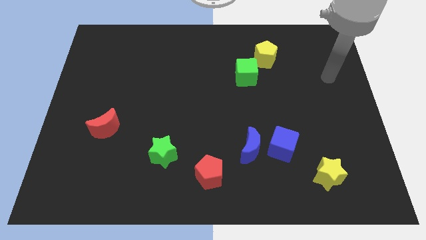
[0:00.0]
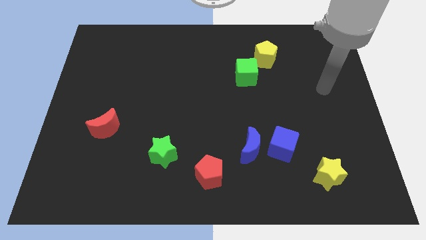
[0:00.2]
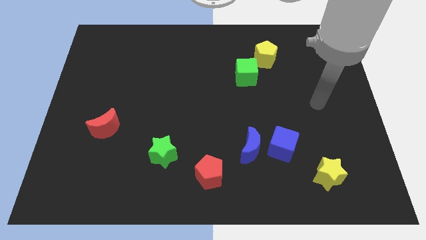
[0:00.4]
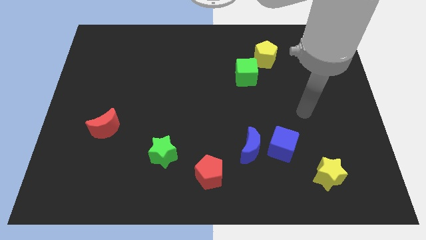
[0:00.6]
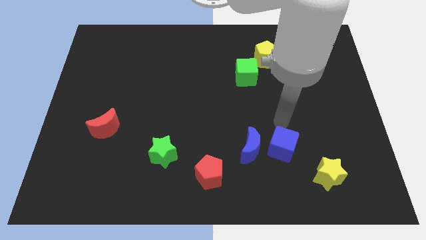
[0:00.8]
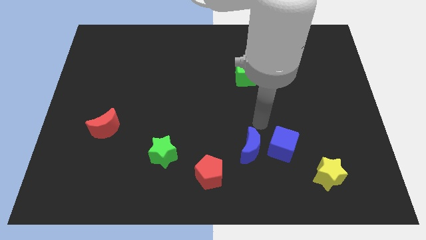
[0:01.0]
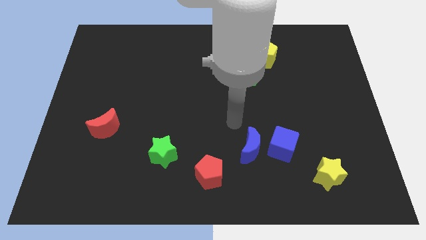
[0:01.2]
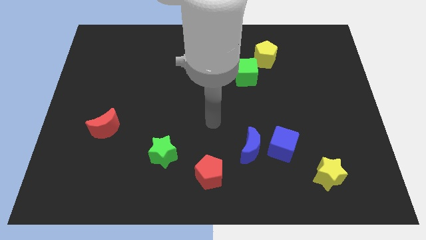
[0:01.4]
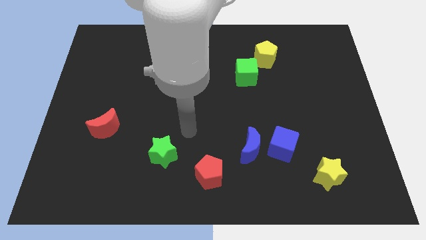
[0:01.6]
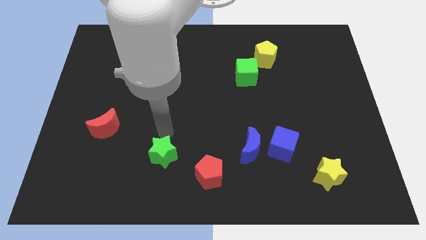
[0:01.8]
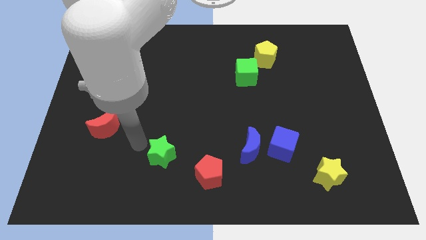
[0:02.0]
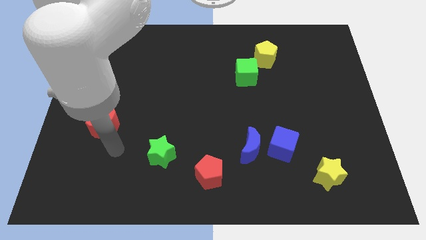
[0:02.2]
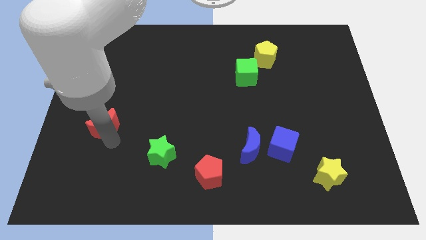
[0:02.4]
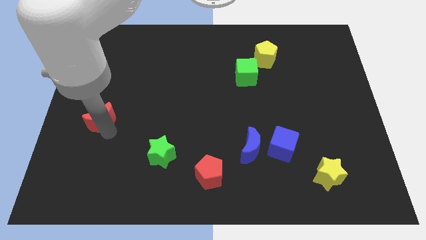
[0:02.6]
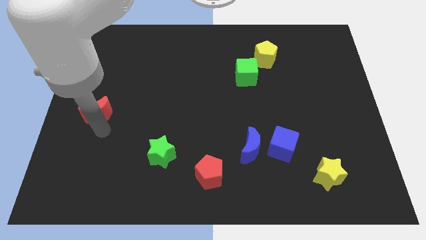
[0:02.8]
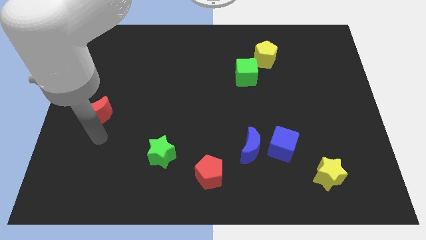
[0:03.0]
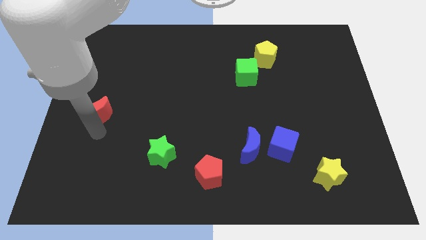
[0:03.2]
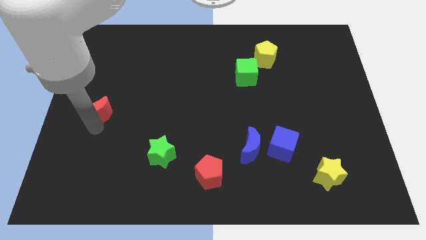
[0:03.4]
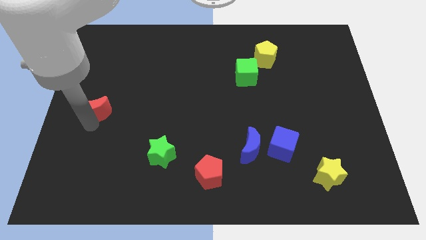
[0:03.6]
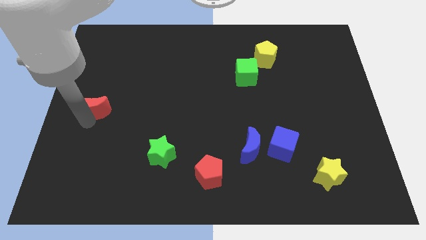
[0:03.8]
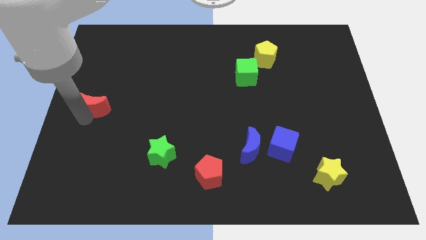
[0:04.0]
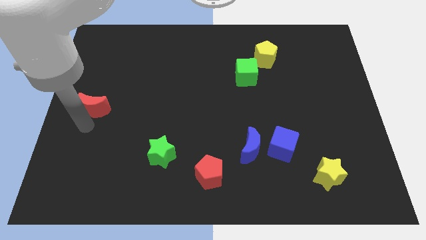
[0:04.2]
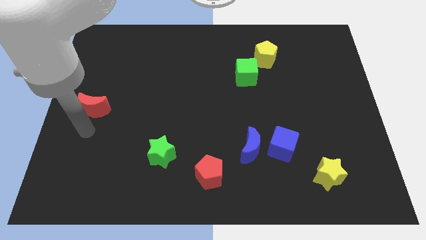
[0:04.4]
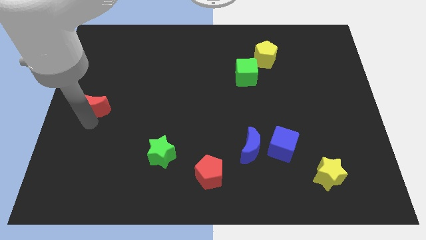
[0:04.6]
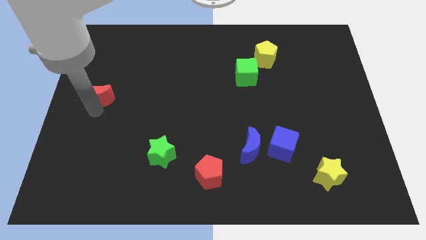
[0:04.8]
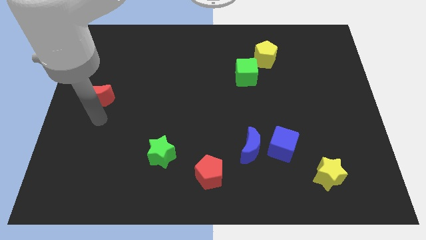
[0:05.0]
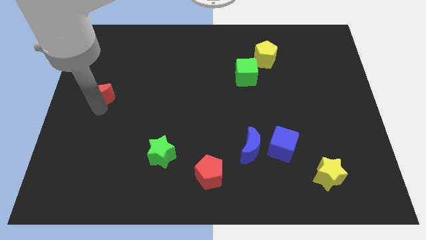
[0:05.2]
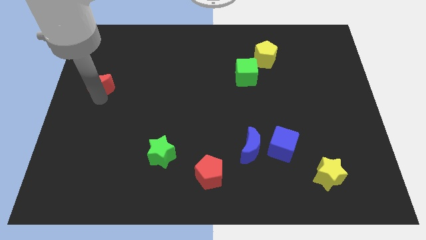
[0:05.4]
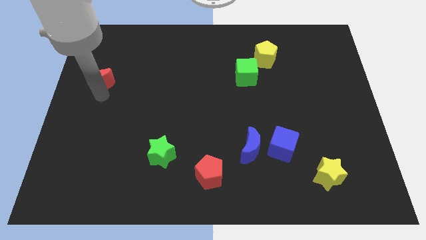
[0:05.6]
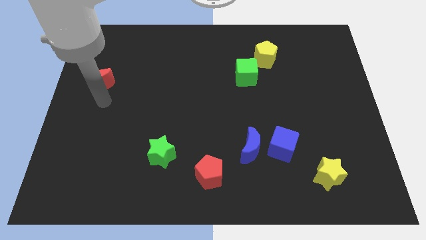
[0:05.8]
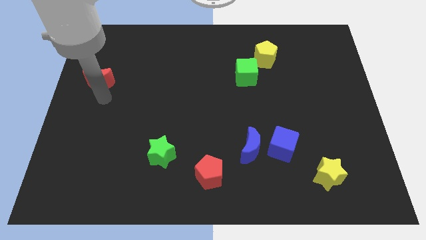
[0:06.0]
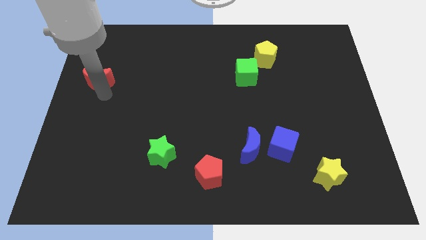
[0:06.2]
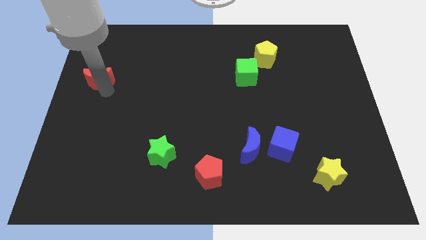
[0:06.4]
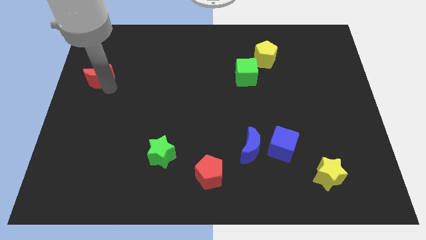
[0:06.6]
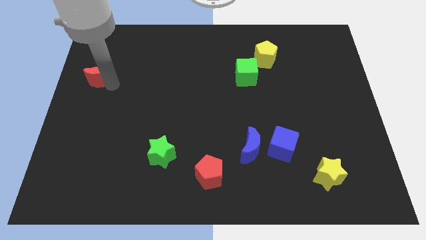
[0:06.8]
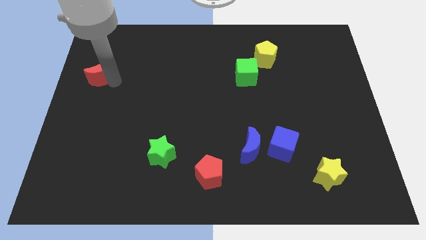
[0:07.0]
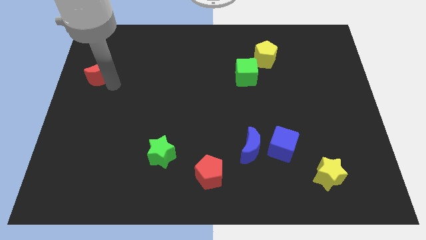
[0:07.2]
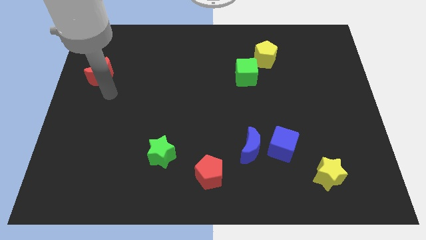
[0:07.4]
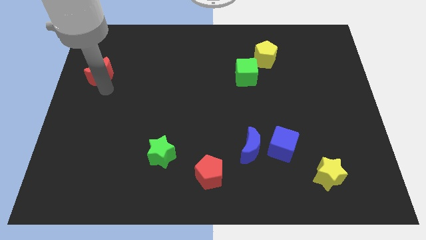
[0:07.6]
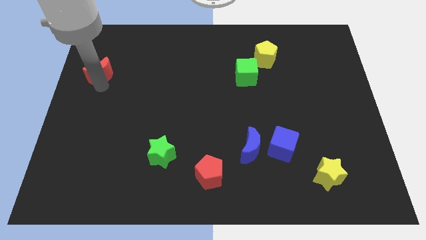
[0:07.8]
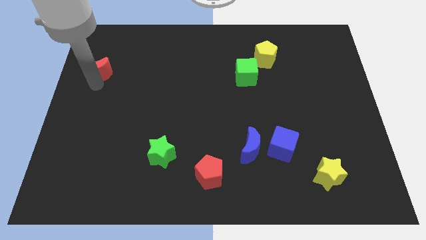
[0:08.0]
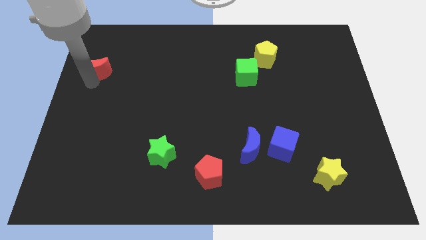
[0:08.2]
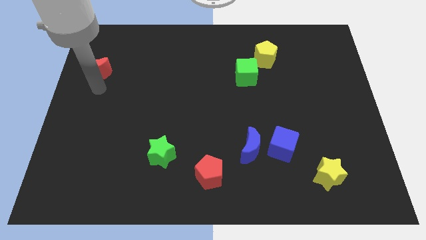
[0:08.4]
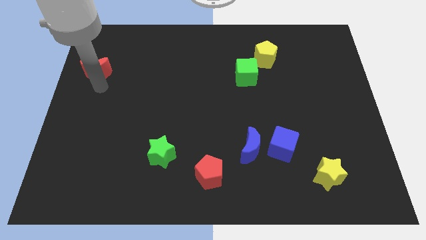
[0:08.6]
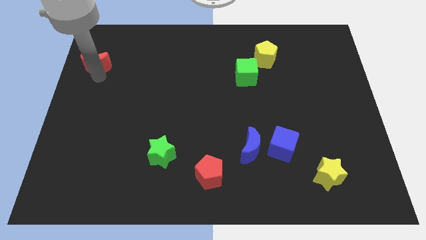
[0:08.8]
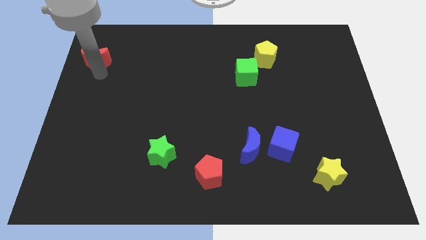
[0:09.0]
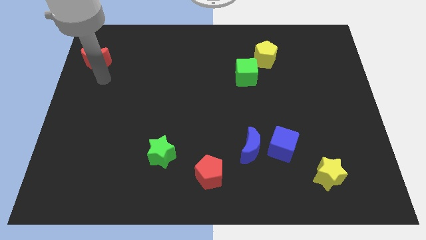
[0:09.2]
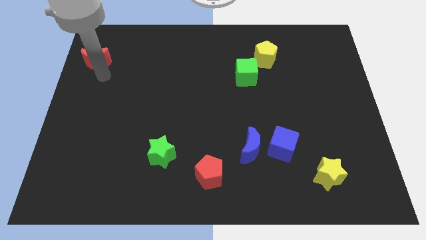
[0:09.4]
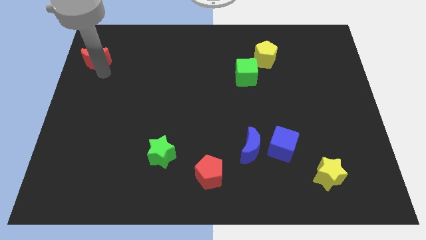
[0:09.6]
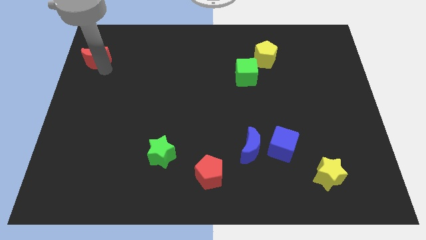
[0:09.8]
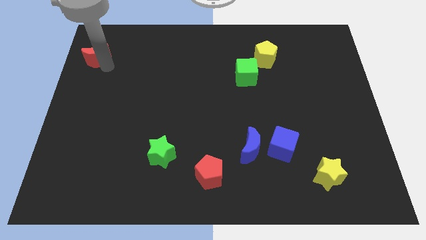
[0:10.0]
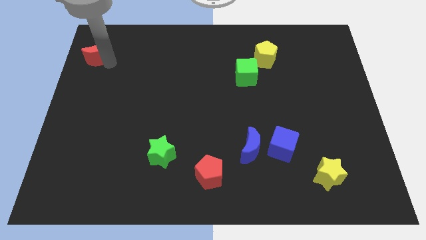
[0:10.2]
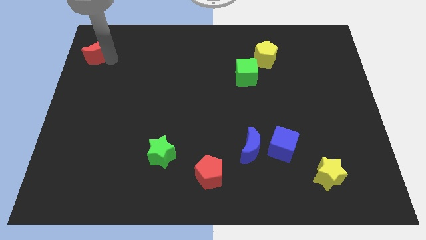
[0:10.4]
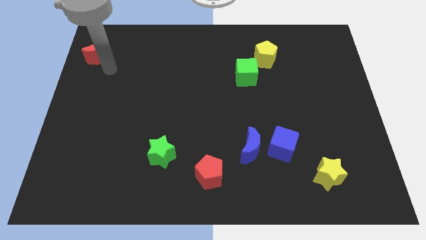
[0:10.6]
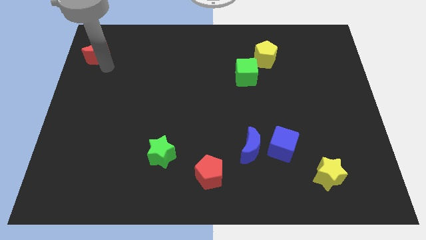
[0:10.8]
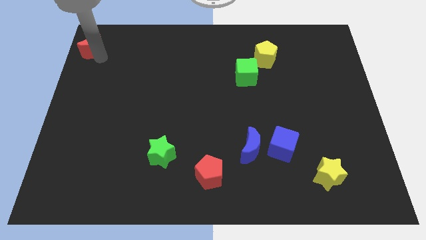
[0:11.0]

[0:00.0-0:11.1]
put the red moon to the top left of the board

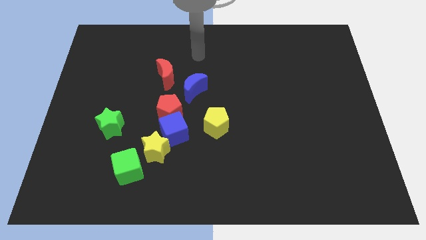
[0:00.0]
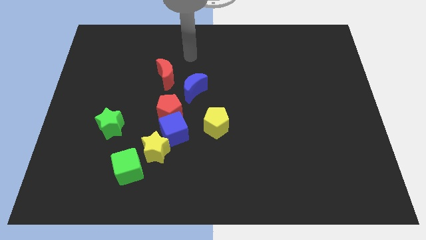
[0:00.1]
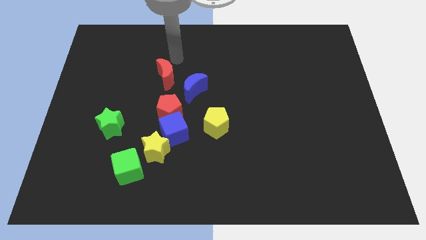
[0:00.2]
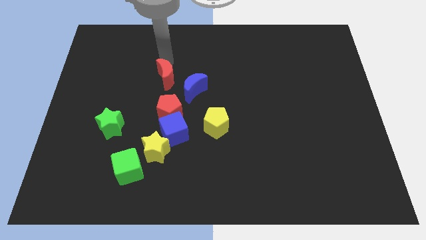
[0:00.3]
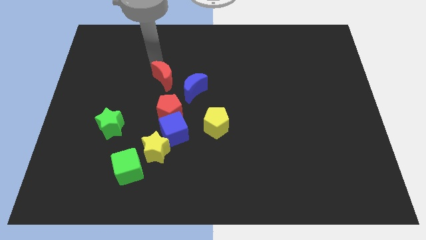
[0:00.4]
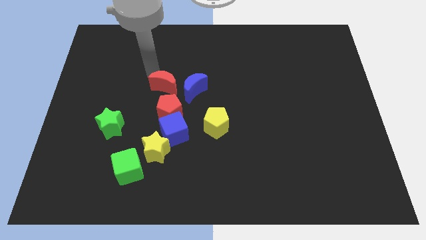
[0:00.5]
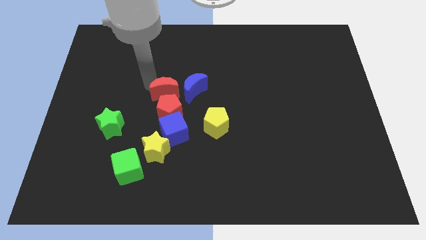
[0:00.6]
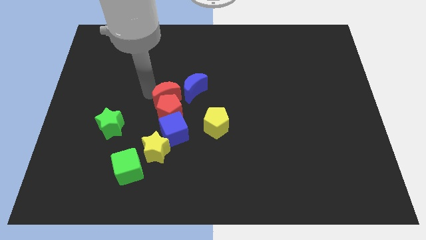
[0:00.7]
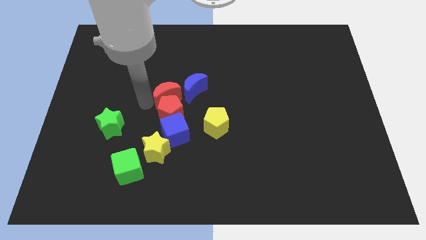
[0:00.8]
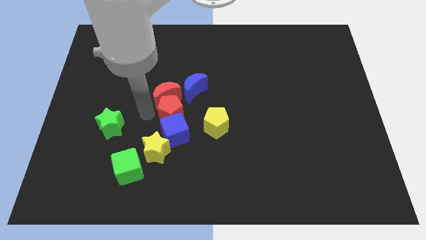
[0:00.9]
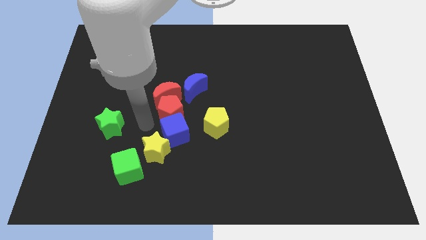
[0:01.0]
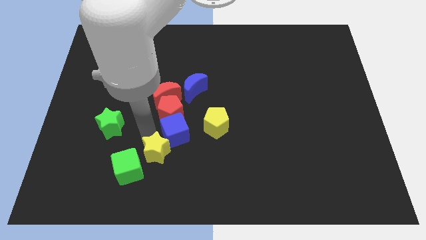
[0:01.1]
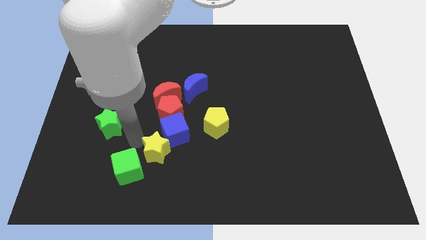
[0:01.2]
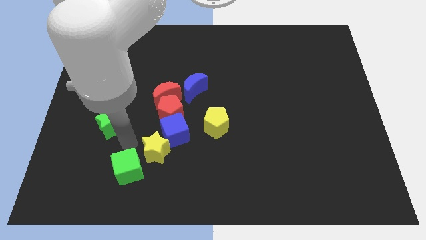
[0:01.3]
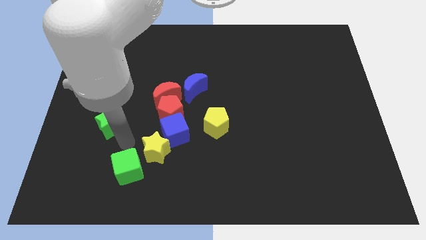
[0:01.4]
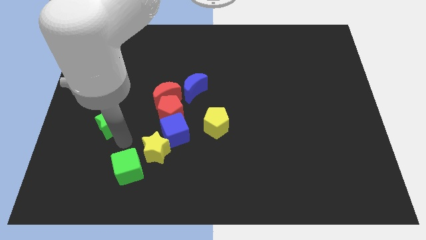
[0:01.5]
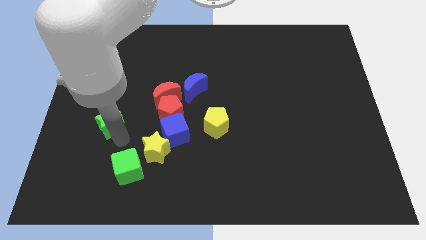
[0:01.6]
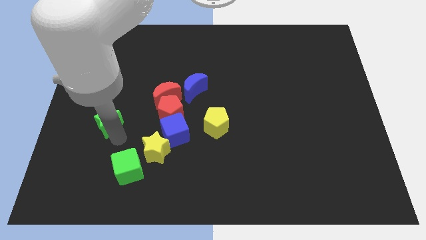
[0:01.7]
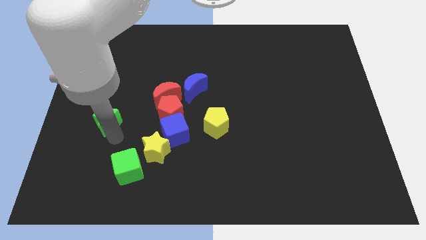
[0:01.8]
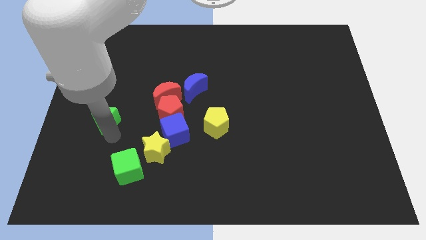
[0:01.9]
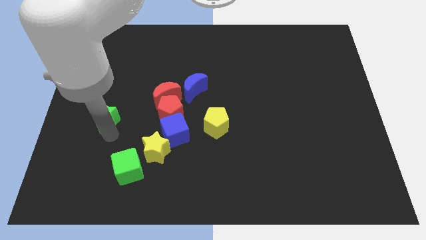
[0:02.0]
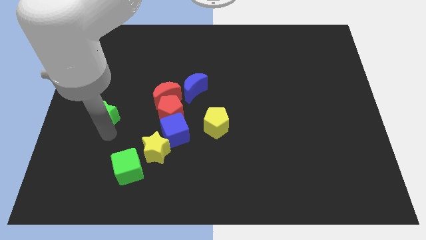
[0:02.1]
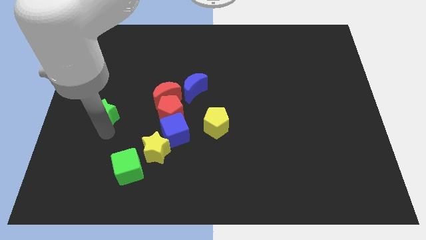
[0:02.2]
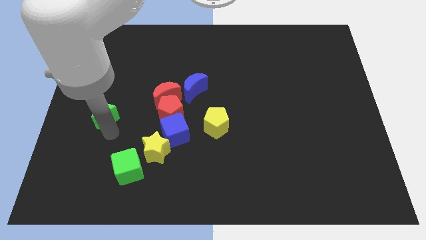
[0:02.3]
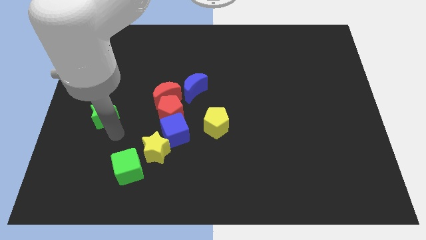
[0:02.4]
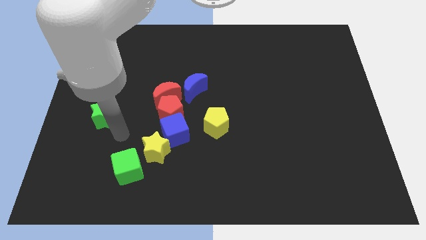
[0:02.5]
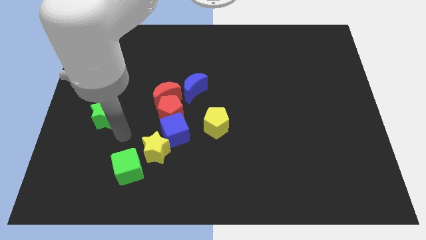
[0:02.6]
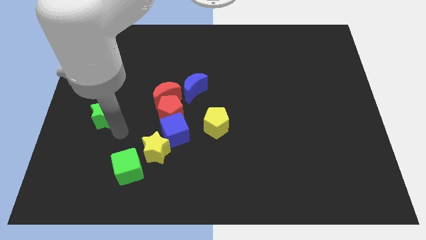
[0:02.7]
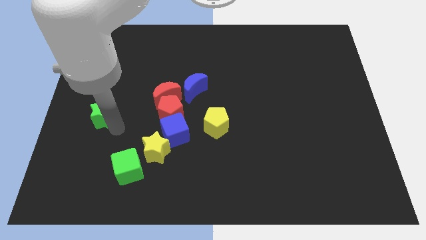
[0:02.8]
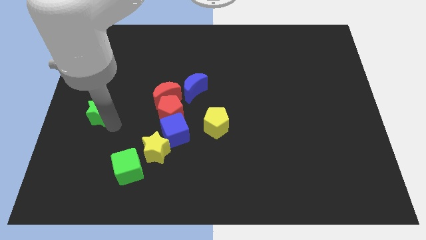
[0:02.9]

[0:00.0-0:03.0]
put the green star to the center left
